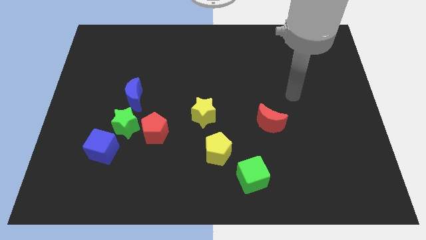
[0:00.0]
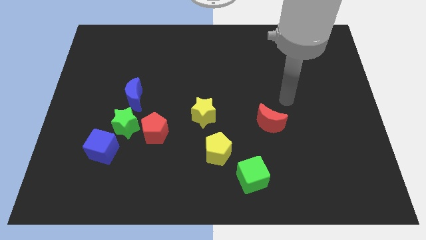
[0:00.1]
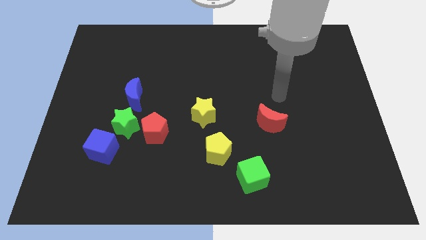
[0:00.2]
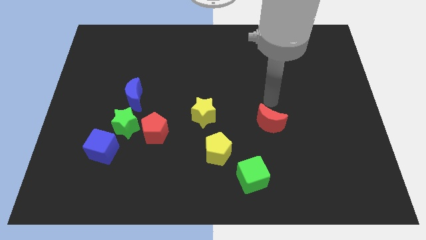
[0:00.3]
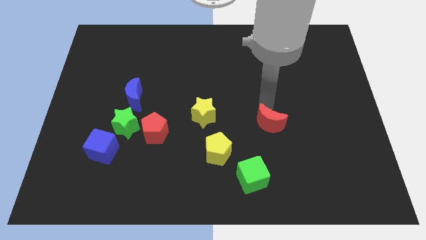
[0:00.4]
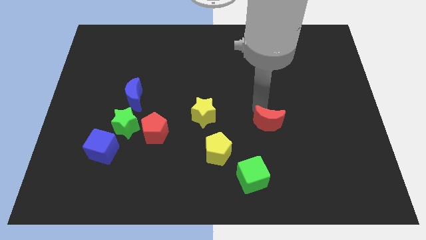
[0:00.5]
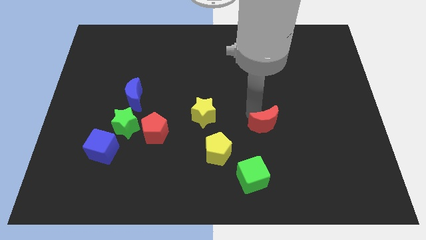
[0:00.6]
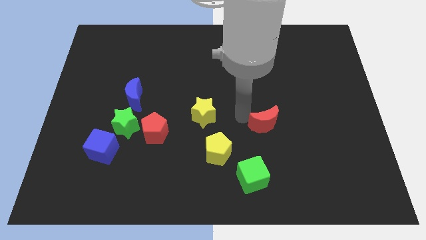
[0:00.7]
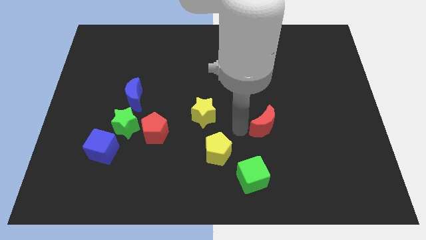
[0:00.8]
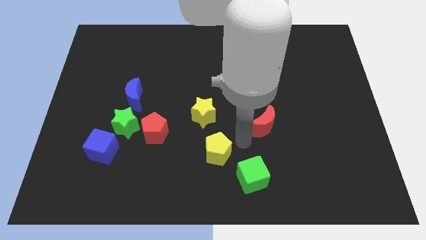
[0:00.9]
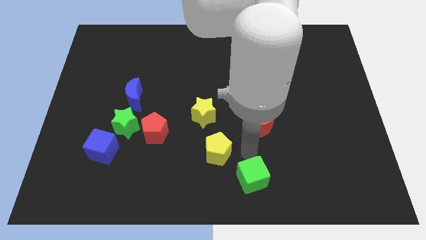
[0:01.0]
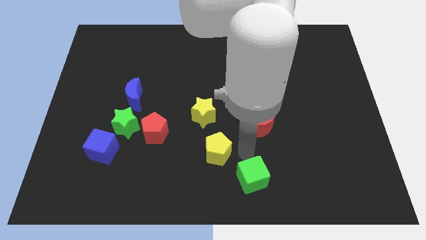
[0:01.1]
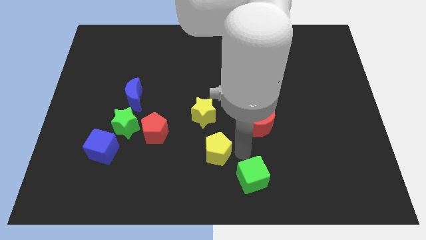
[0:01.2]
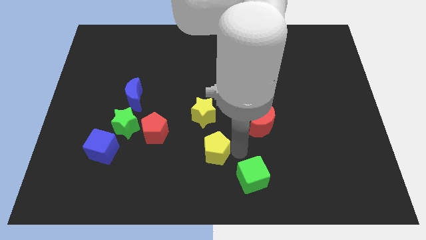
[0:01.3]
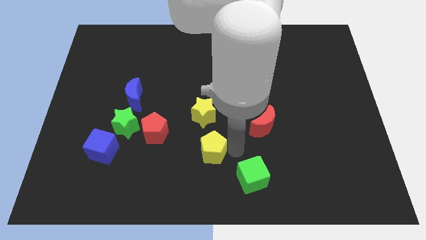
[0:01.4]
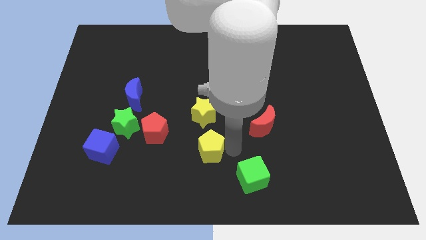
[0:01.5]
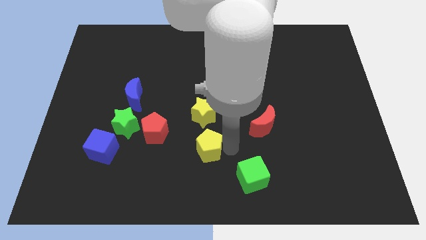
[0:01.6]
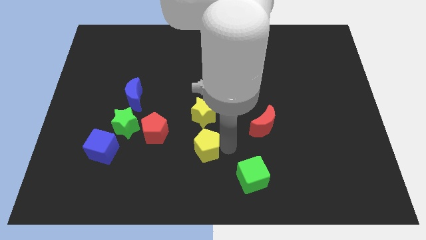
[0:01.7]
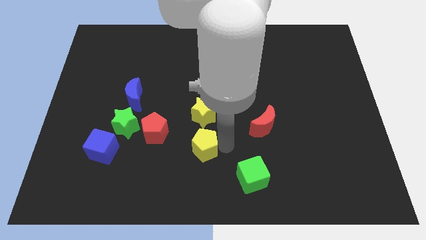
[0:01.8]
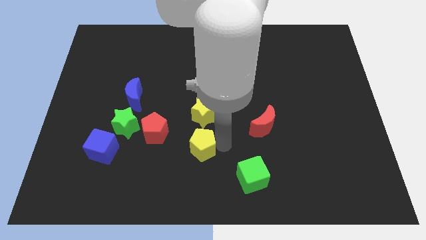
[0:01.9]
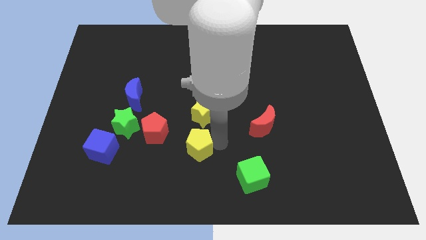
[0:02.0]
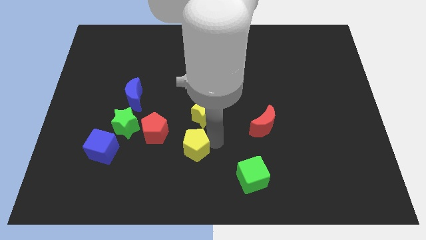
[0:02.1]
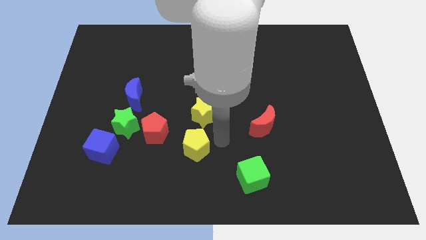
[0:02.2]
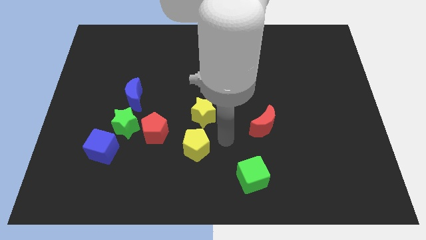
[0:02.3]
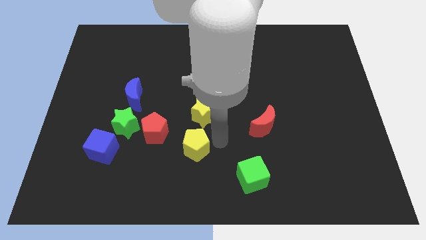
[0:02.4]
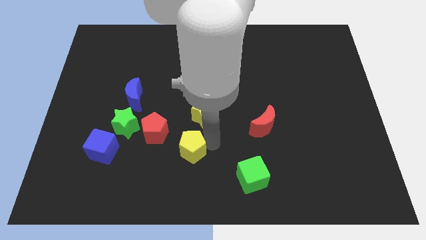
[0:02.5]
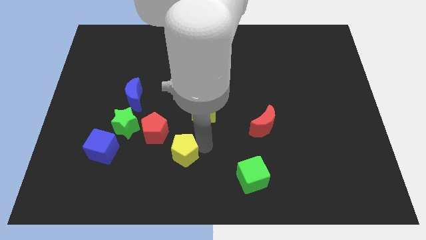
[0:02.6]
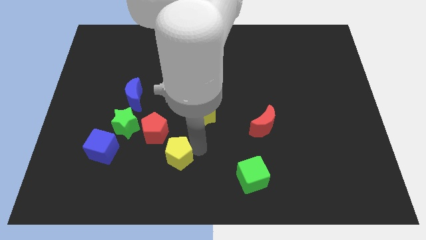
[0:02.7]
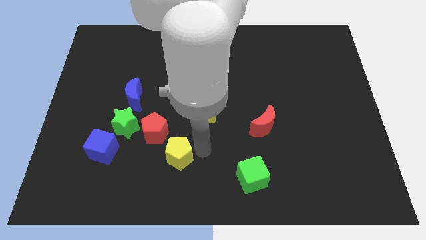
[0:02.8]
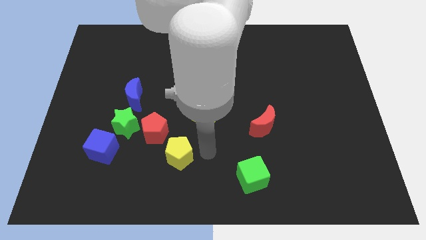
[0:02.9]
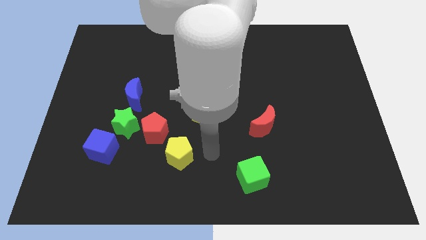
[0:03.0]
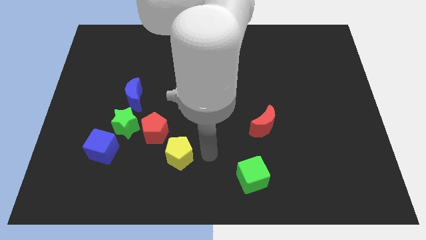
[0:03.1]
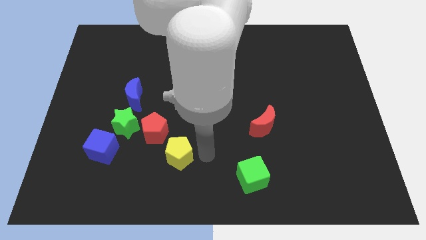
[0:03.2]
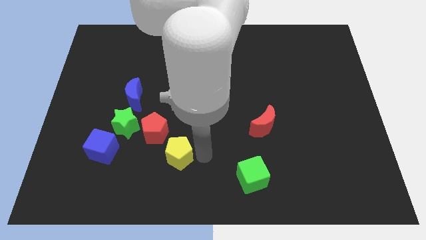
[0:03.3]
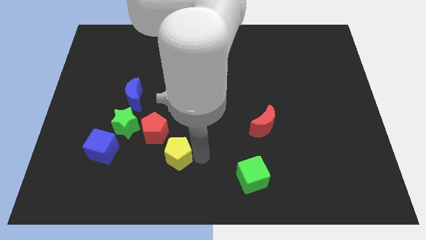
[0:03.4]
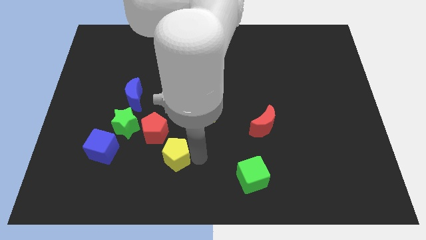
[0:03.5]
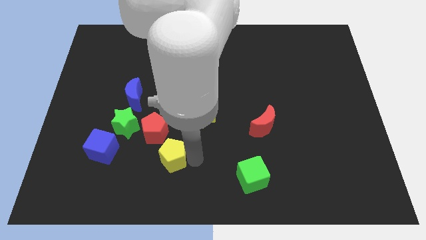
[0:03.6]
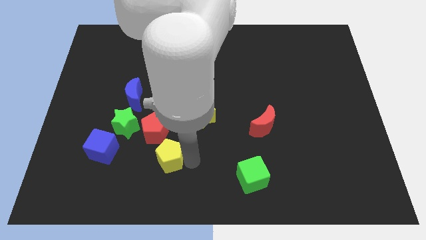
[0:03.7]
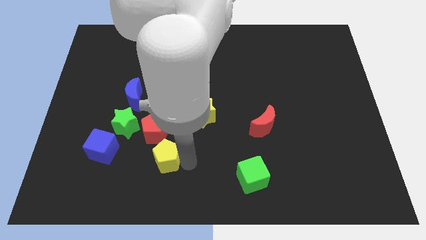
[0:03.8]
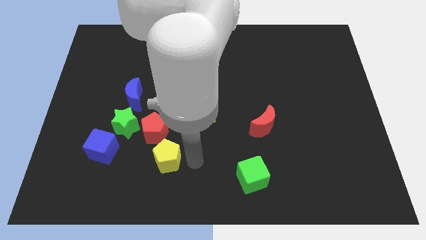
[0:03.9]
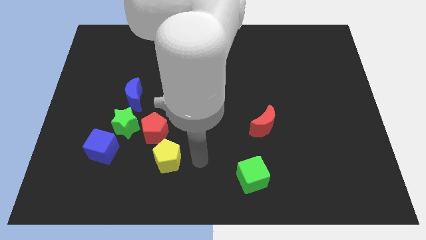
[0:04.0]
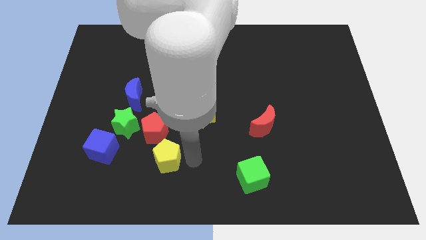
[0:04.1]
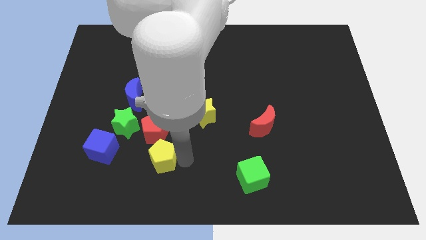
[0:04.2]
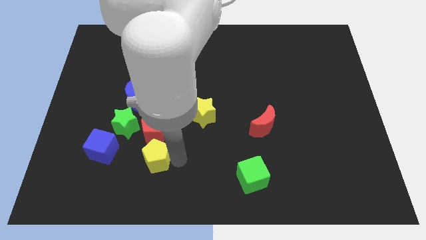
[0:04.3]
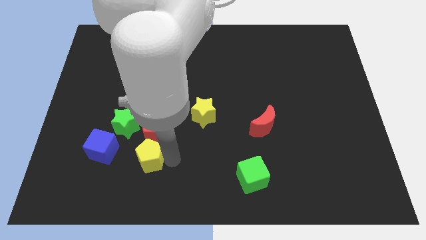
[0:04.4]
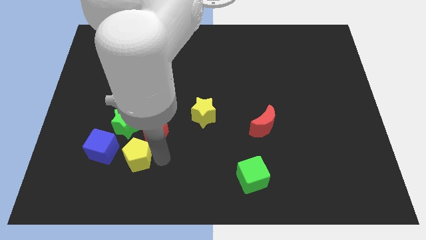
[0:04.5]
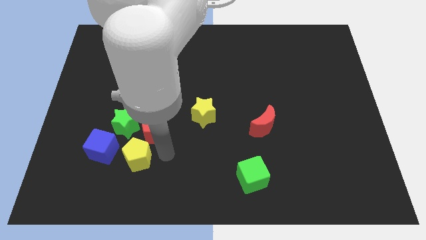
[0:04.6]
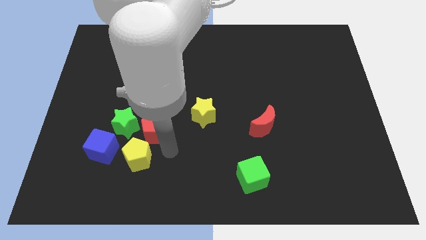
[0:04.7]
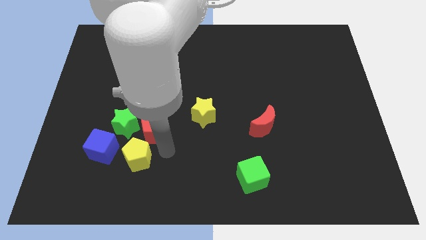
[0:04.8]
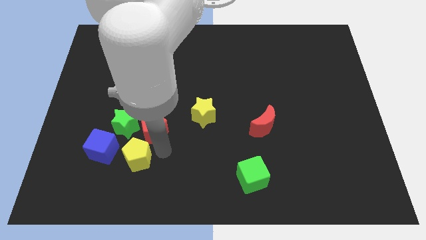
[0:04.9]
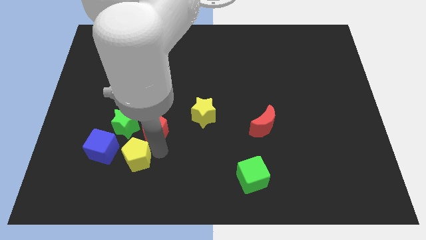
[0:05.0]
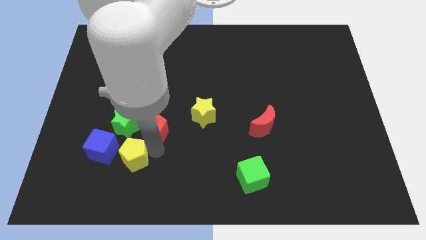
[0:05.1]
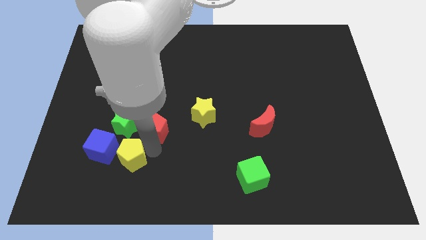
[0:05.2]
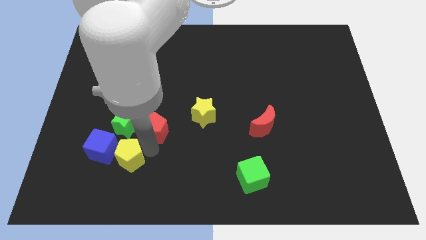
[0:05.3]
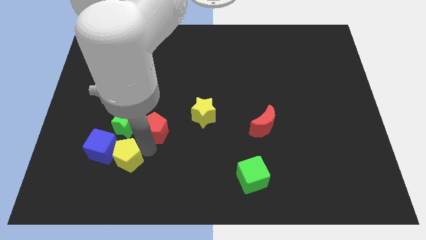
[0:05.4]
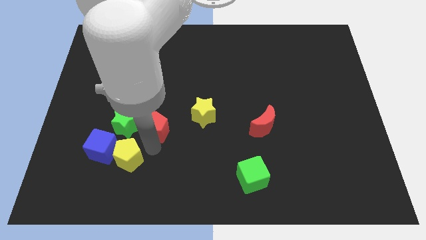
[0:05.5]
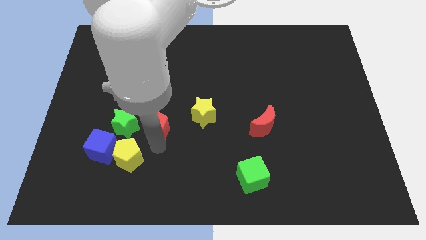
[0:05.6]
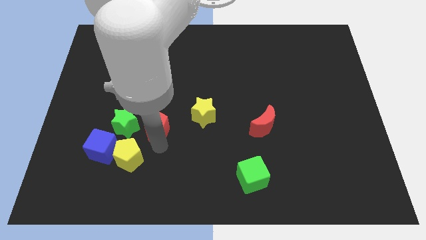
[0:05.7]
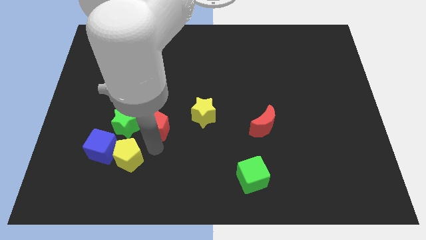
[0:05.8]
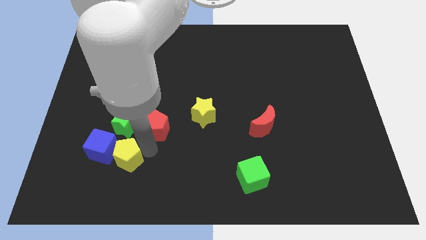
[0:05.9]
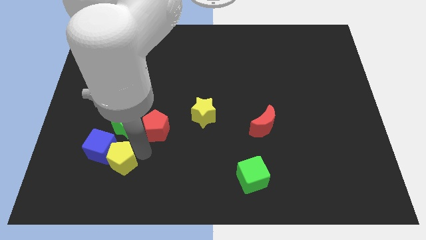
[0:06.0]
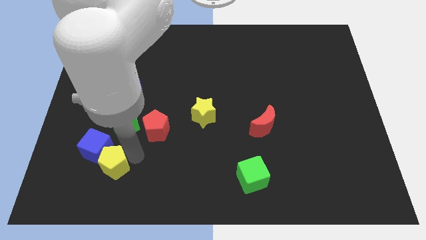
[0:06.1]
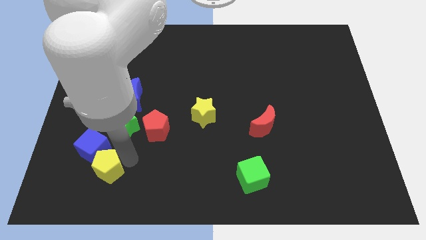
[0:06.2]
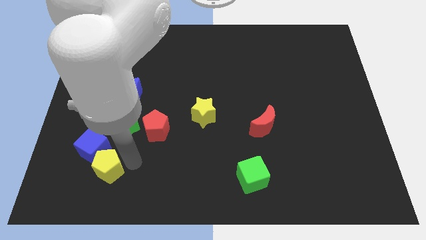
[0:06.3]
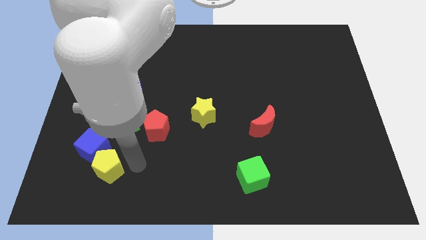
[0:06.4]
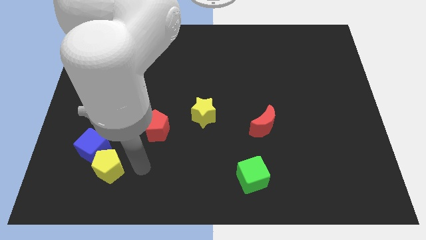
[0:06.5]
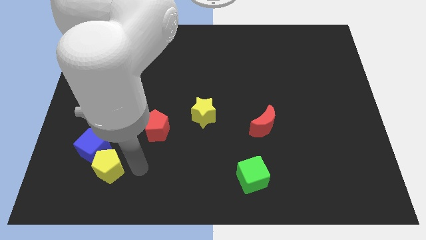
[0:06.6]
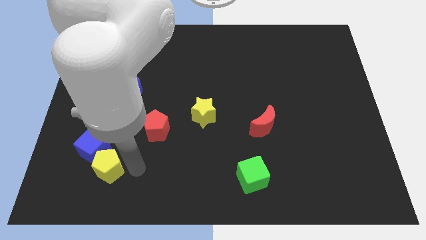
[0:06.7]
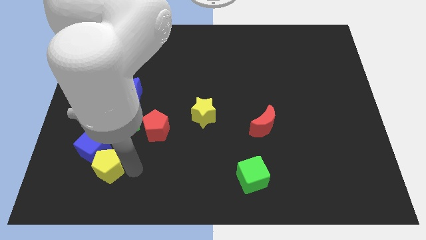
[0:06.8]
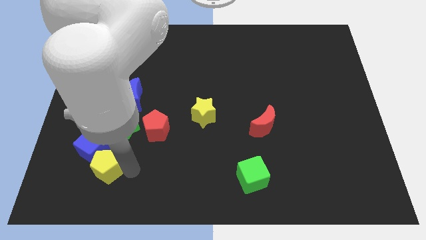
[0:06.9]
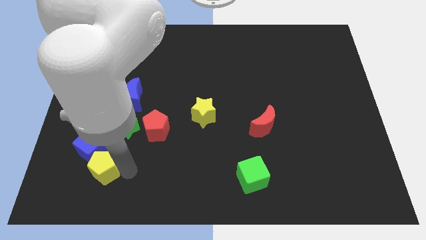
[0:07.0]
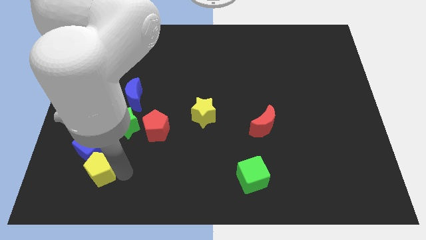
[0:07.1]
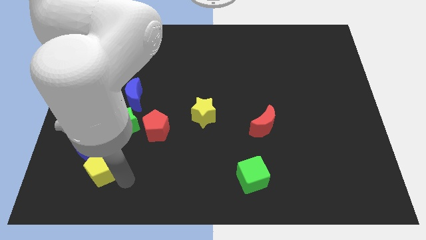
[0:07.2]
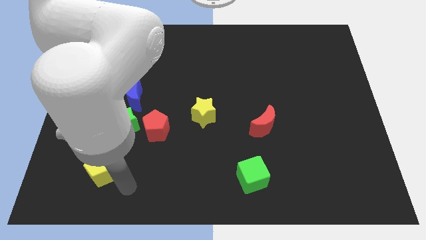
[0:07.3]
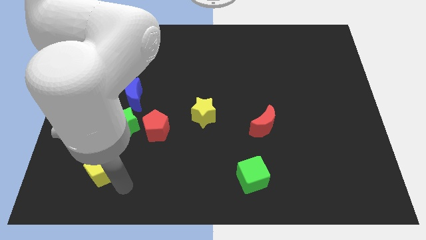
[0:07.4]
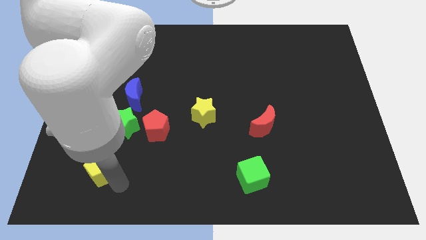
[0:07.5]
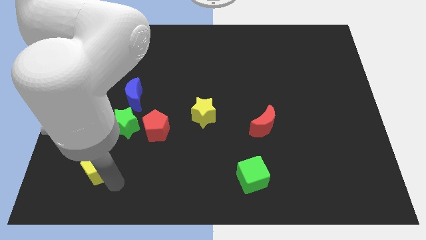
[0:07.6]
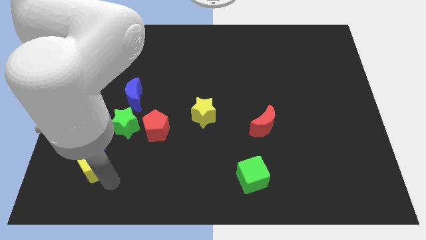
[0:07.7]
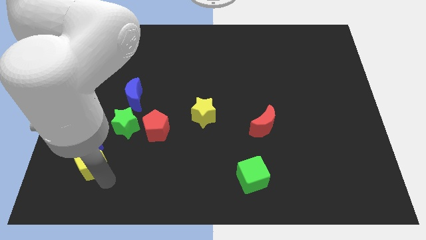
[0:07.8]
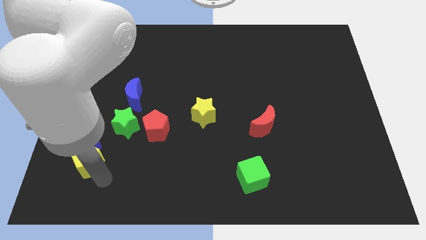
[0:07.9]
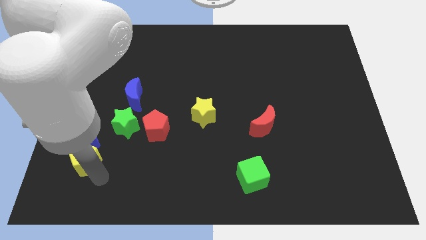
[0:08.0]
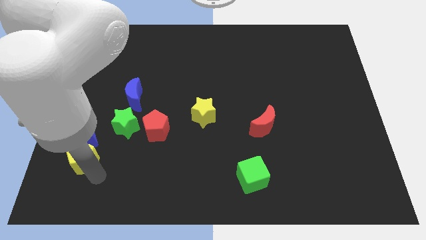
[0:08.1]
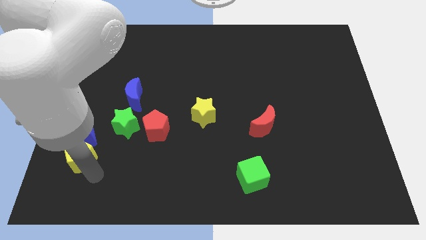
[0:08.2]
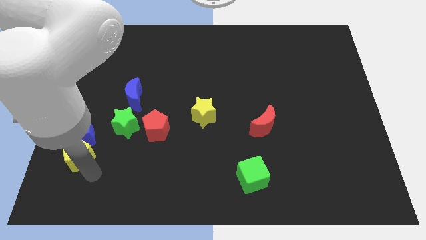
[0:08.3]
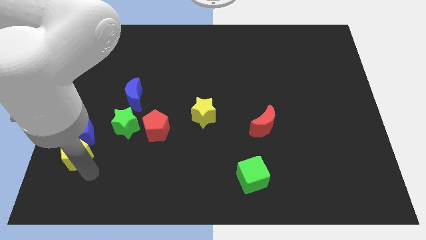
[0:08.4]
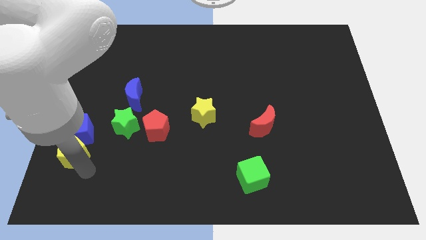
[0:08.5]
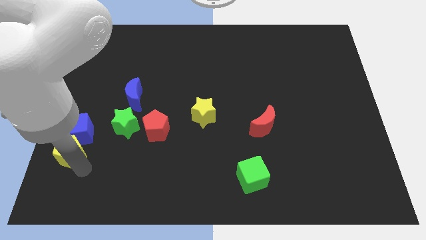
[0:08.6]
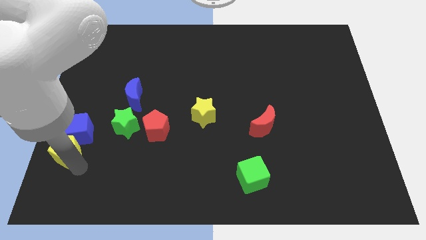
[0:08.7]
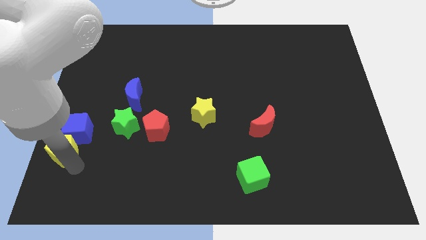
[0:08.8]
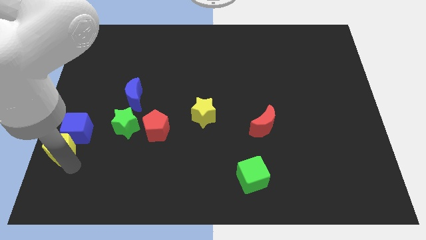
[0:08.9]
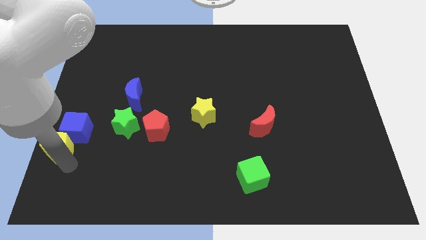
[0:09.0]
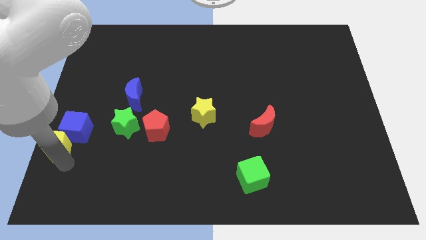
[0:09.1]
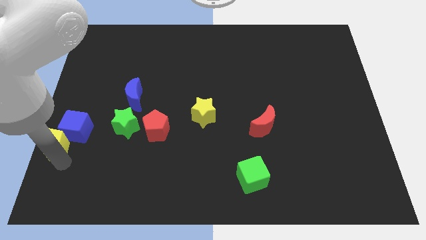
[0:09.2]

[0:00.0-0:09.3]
push the yellow pentagon to the center left
